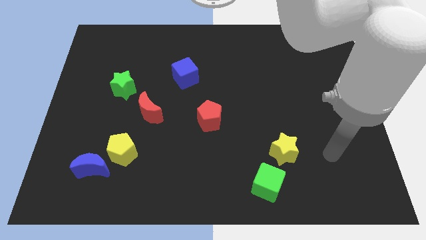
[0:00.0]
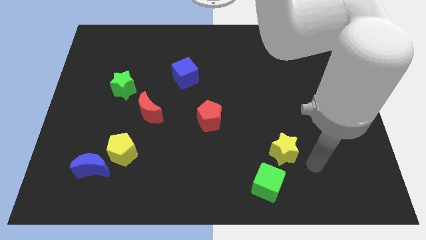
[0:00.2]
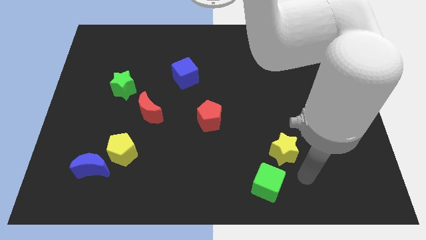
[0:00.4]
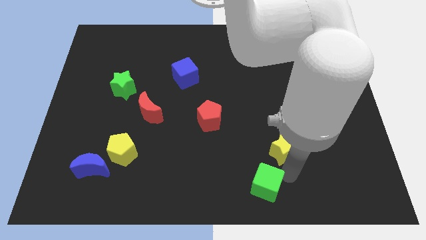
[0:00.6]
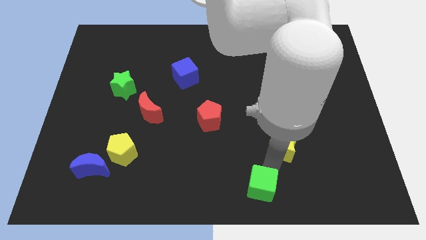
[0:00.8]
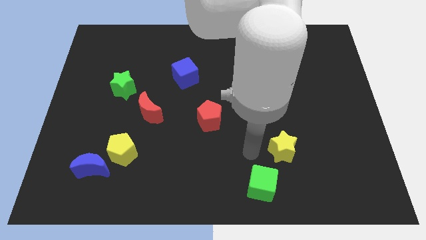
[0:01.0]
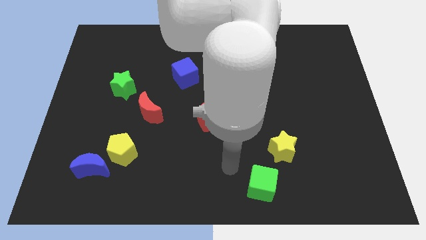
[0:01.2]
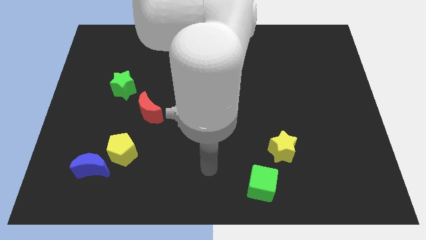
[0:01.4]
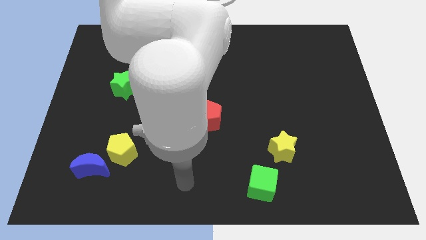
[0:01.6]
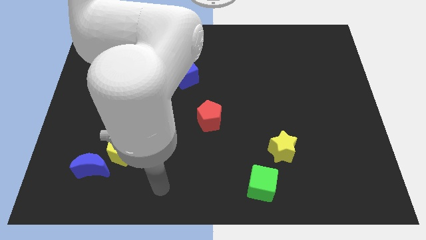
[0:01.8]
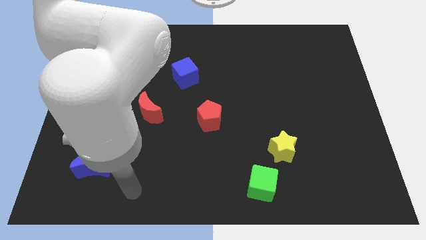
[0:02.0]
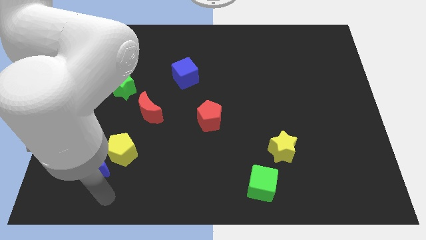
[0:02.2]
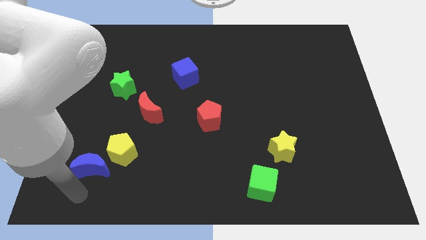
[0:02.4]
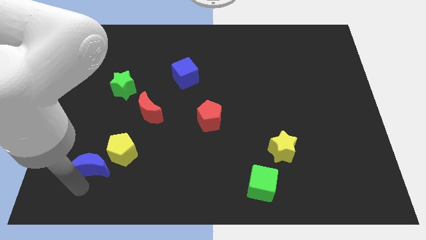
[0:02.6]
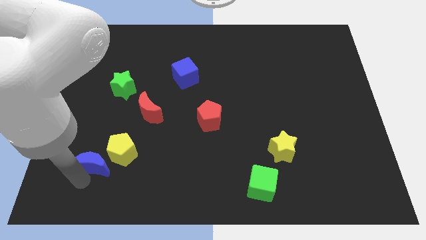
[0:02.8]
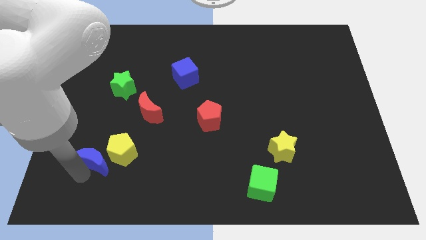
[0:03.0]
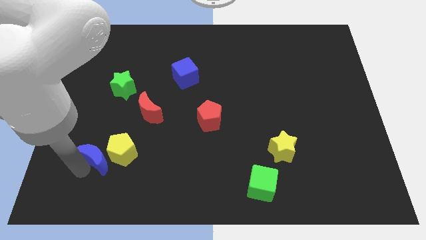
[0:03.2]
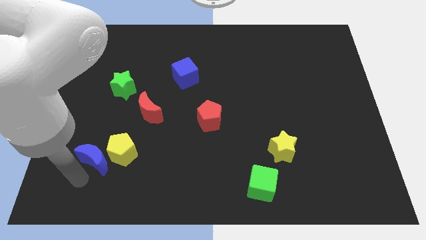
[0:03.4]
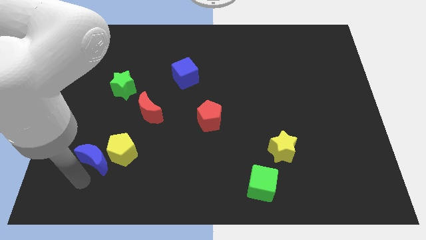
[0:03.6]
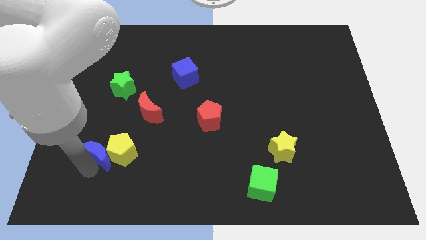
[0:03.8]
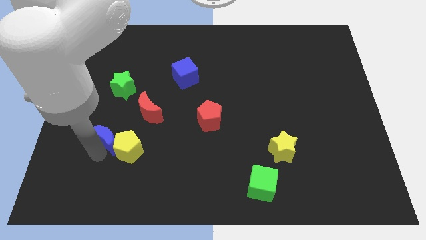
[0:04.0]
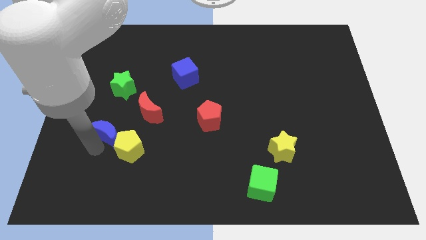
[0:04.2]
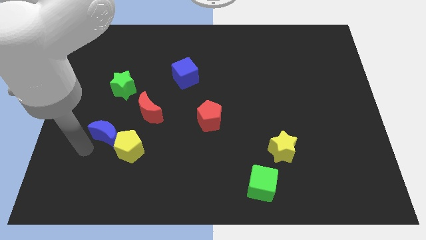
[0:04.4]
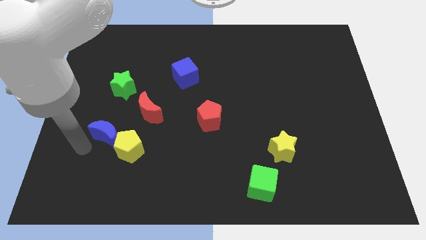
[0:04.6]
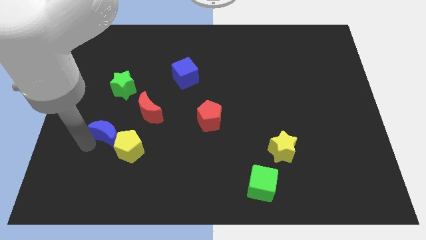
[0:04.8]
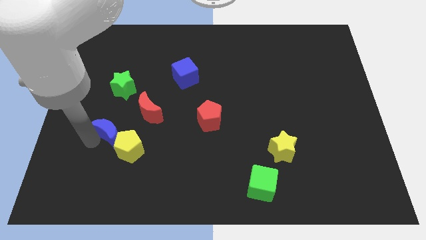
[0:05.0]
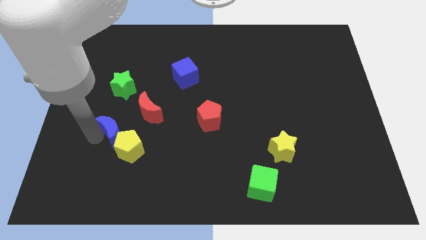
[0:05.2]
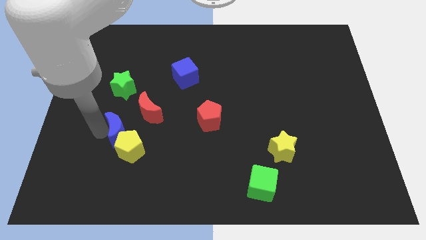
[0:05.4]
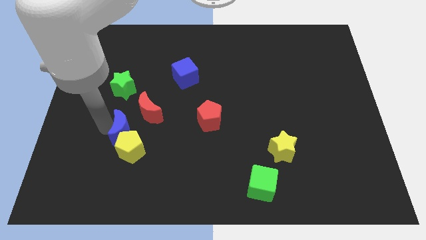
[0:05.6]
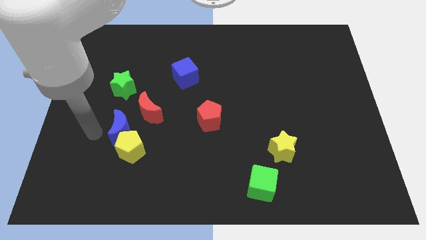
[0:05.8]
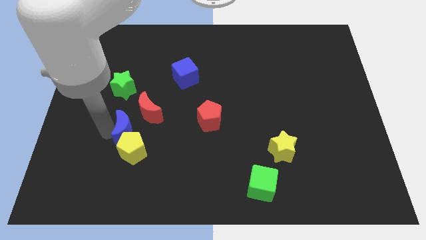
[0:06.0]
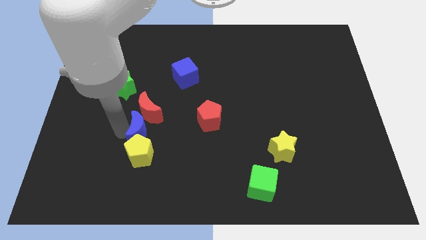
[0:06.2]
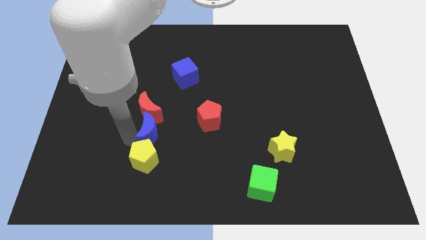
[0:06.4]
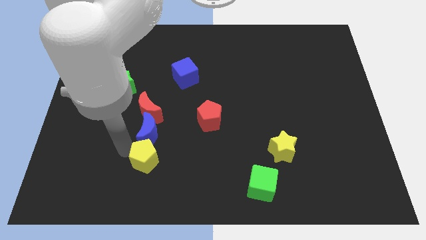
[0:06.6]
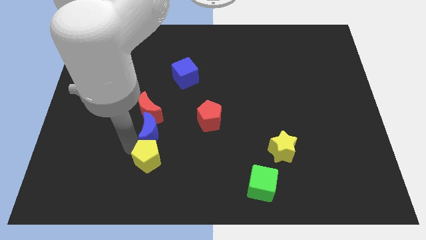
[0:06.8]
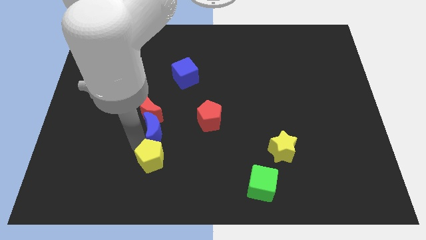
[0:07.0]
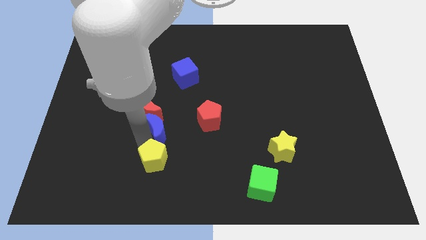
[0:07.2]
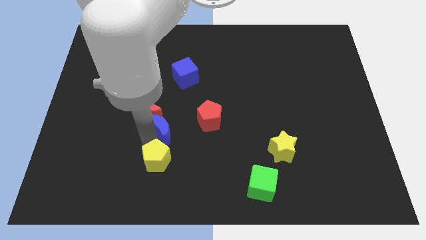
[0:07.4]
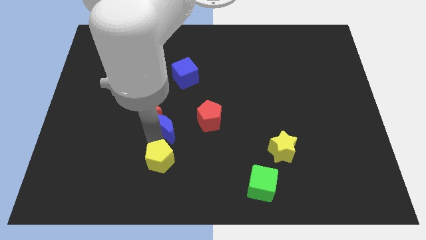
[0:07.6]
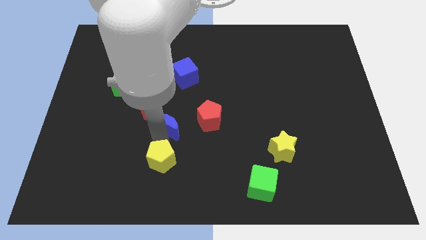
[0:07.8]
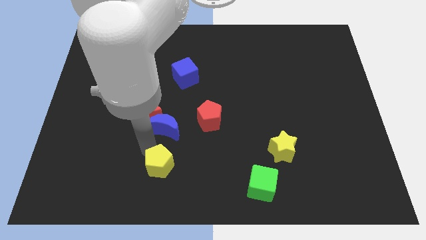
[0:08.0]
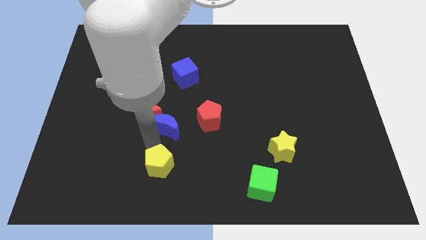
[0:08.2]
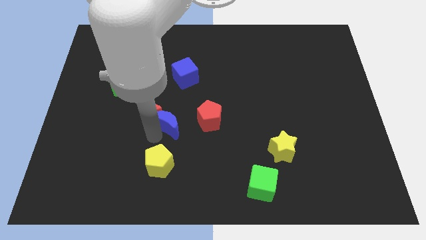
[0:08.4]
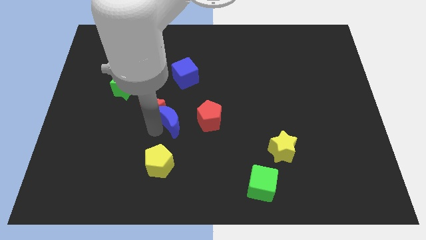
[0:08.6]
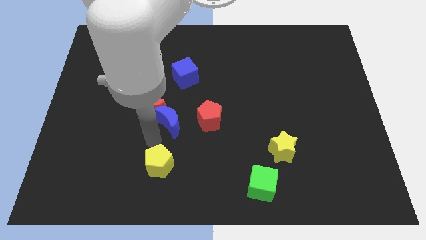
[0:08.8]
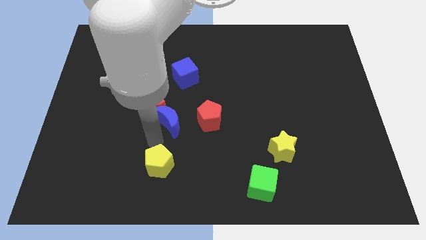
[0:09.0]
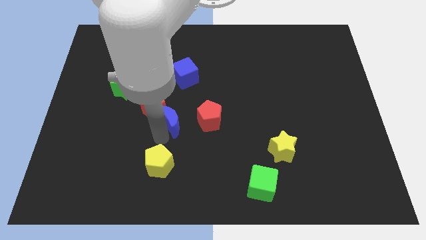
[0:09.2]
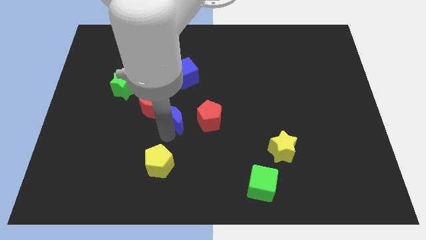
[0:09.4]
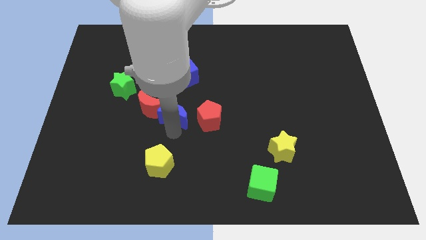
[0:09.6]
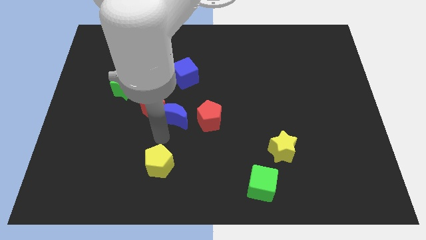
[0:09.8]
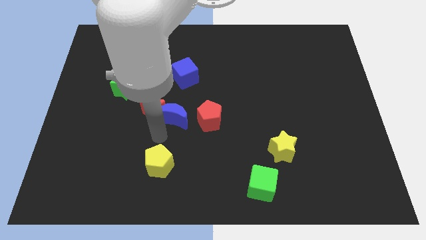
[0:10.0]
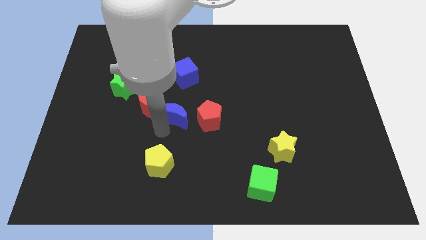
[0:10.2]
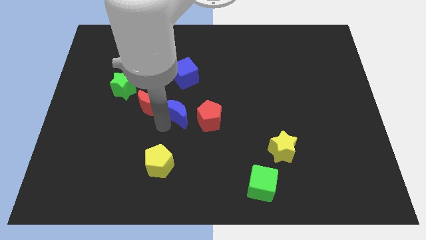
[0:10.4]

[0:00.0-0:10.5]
move the blue moon to the top left side of the red pentagon

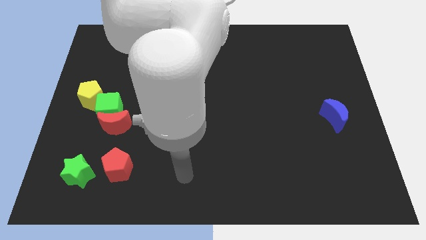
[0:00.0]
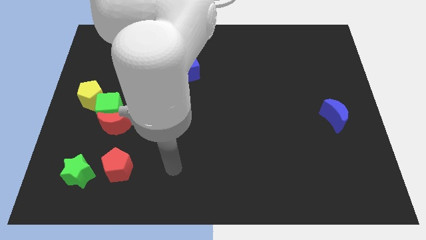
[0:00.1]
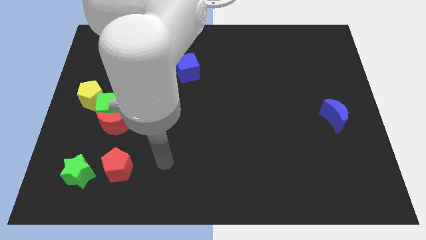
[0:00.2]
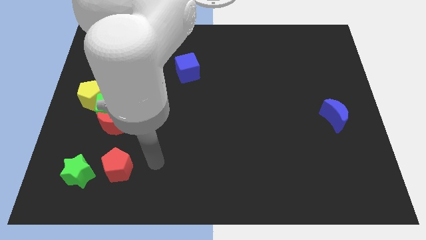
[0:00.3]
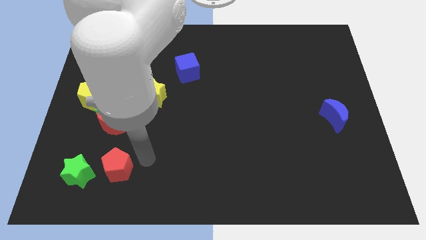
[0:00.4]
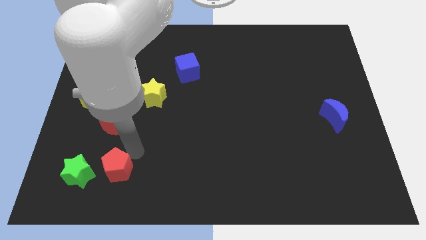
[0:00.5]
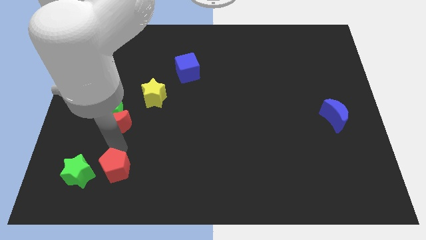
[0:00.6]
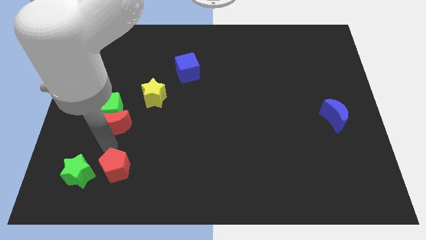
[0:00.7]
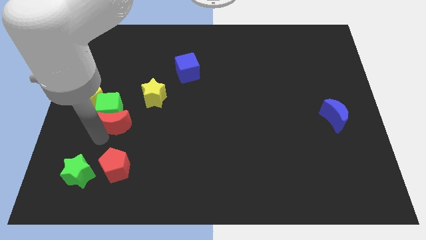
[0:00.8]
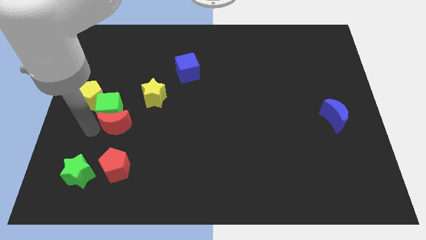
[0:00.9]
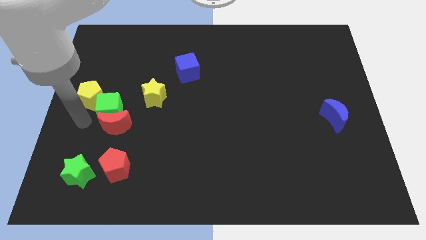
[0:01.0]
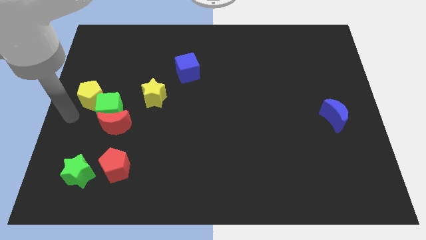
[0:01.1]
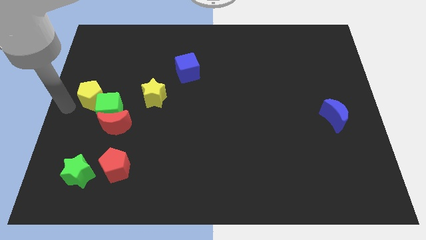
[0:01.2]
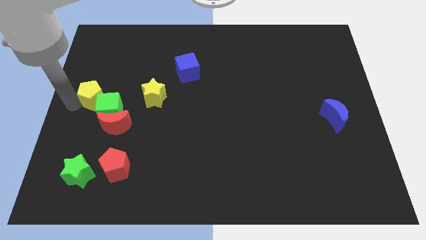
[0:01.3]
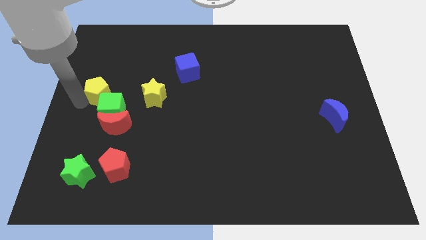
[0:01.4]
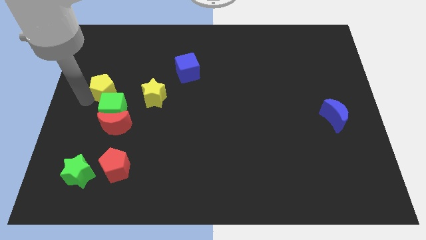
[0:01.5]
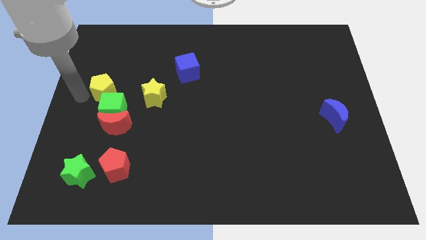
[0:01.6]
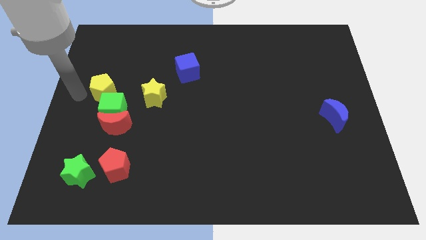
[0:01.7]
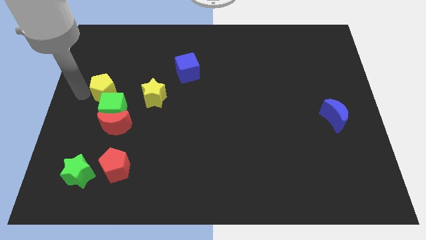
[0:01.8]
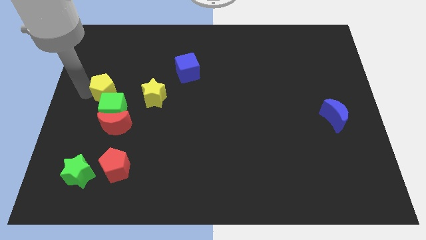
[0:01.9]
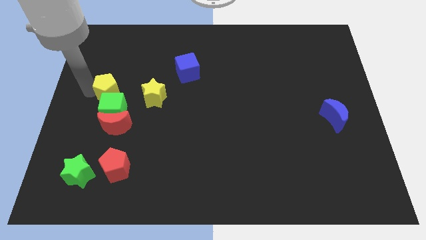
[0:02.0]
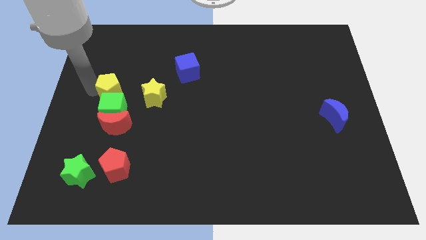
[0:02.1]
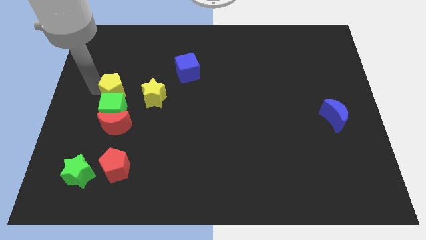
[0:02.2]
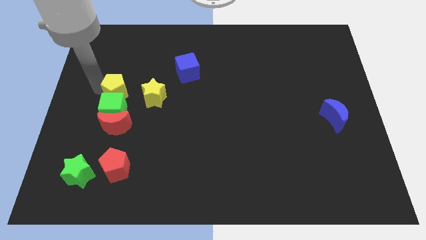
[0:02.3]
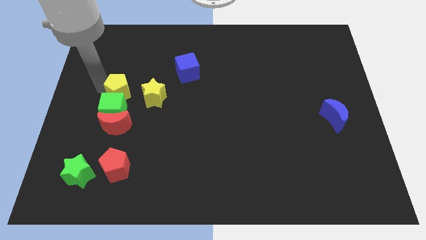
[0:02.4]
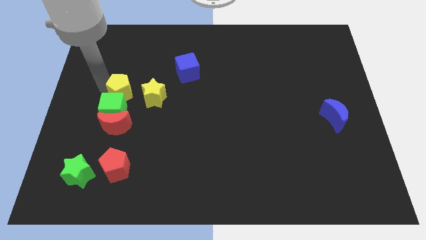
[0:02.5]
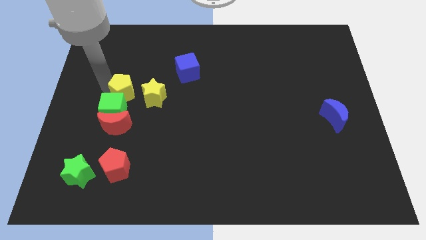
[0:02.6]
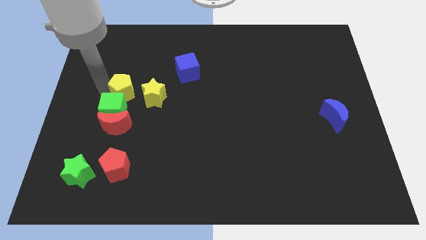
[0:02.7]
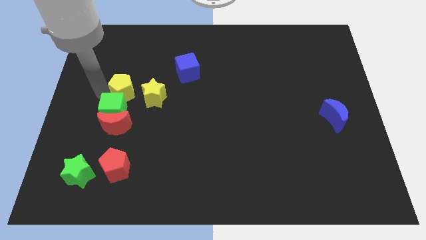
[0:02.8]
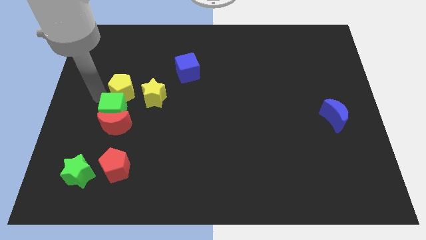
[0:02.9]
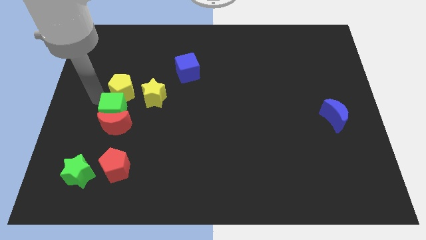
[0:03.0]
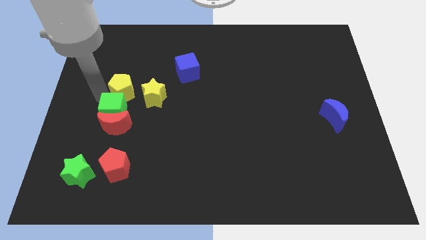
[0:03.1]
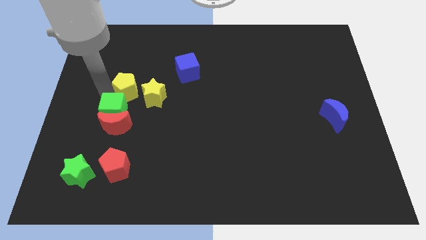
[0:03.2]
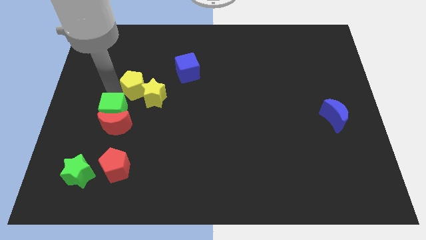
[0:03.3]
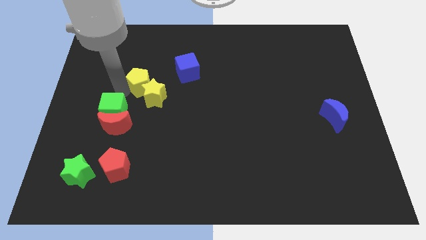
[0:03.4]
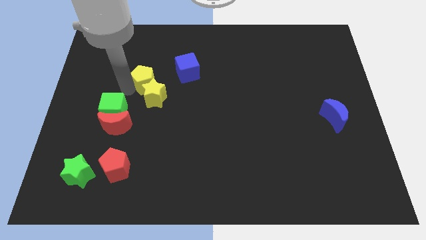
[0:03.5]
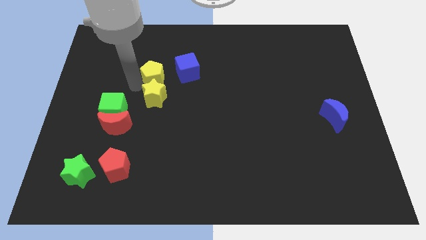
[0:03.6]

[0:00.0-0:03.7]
slide the yellow pentagon to the top right of the yellow star
